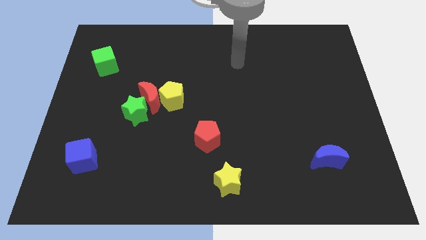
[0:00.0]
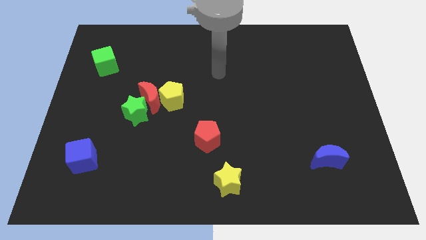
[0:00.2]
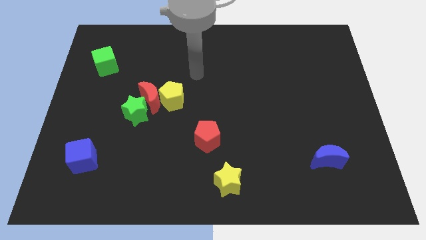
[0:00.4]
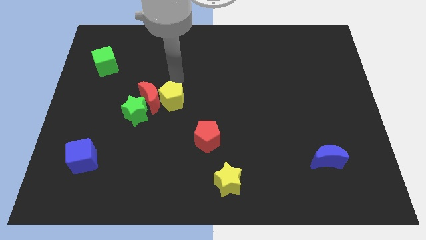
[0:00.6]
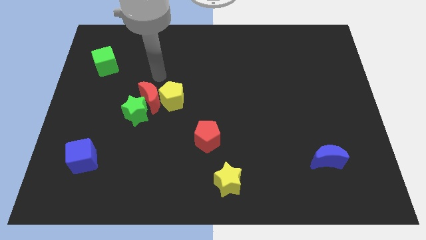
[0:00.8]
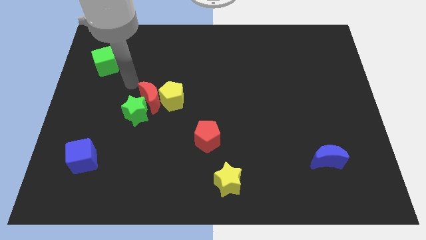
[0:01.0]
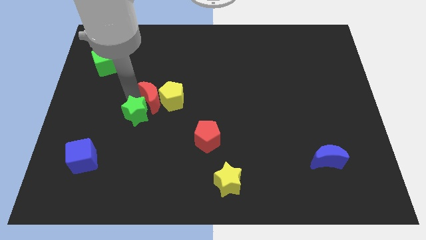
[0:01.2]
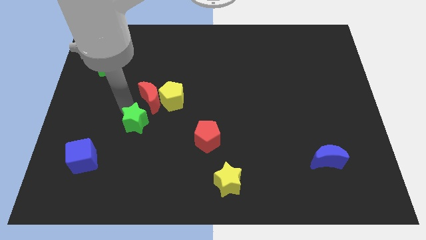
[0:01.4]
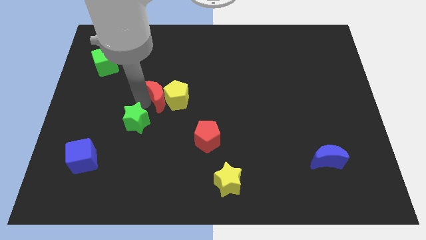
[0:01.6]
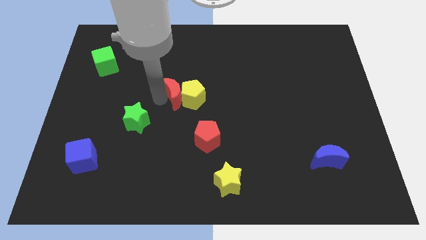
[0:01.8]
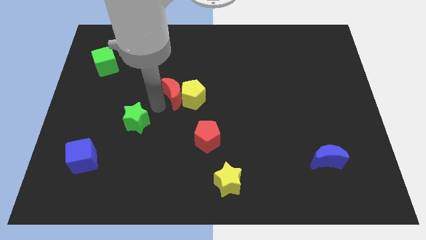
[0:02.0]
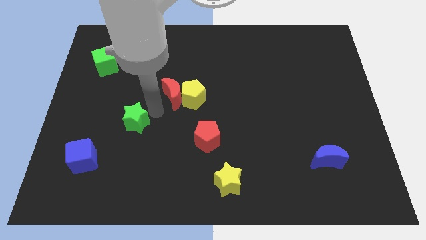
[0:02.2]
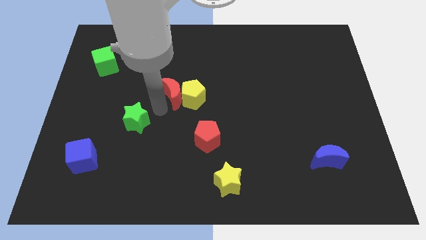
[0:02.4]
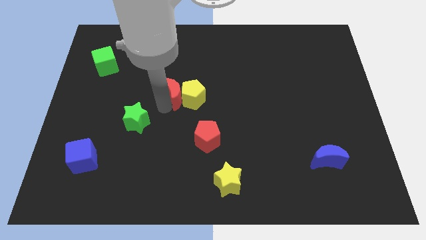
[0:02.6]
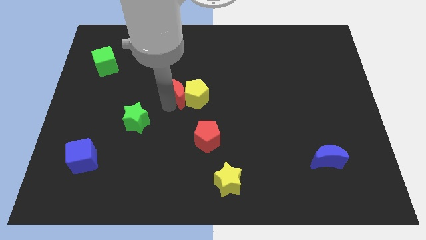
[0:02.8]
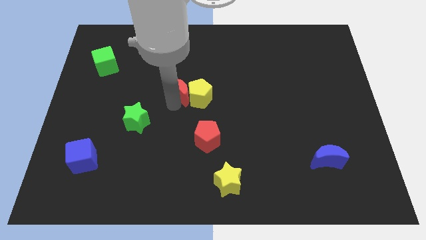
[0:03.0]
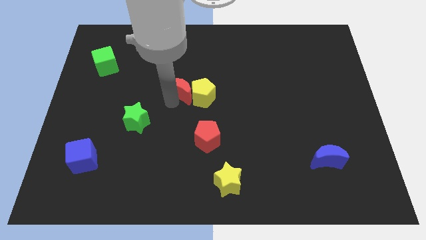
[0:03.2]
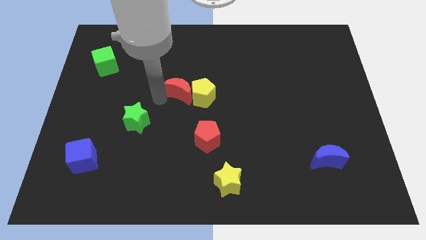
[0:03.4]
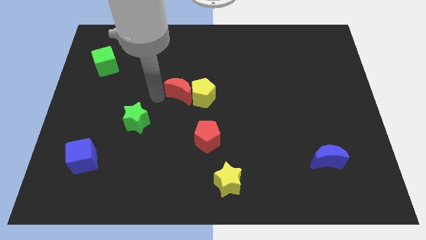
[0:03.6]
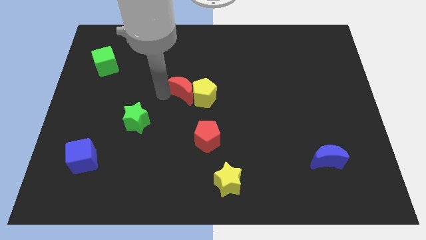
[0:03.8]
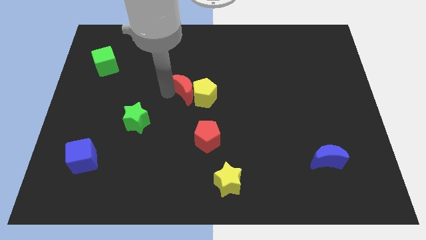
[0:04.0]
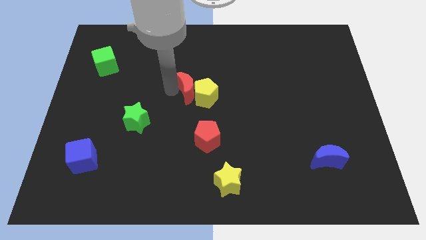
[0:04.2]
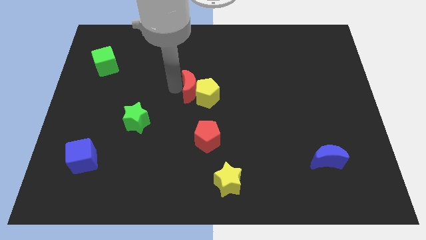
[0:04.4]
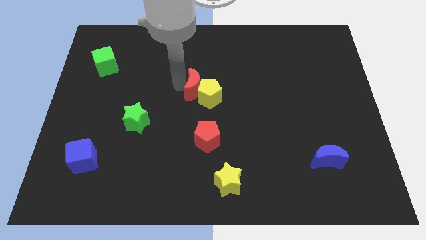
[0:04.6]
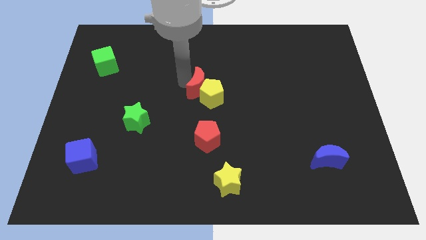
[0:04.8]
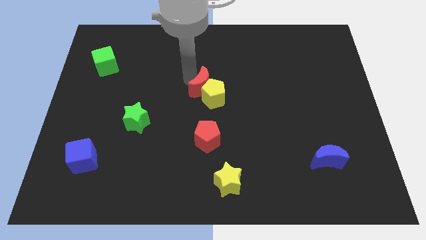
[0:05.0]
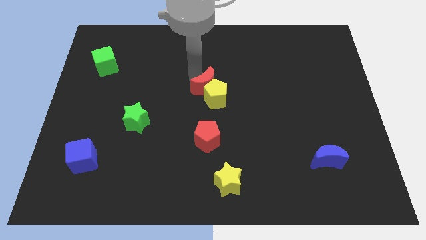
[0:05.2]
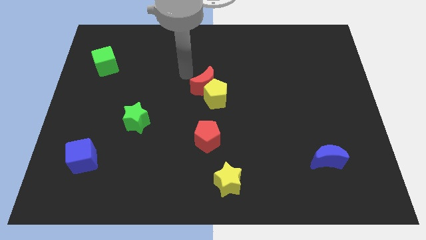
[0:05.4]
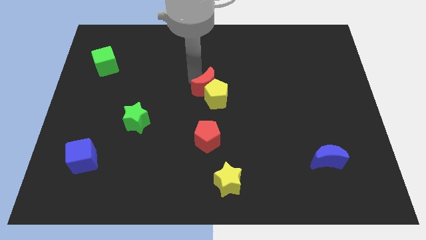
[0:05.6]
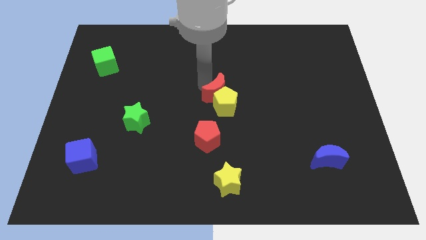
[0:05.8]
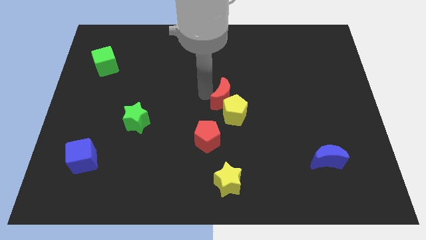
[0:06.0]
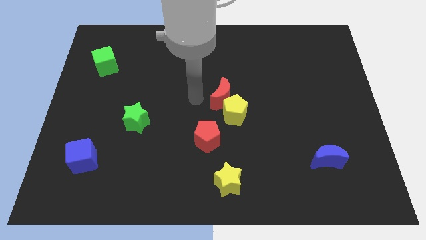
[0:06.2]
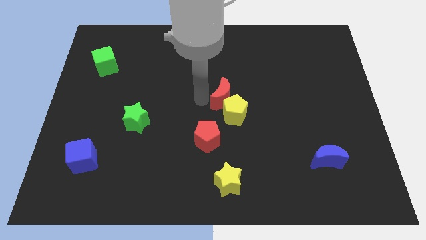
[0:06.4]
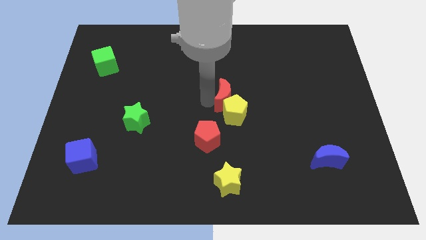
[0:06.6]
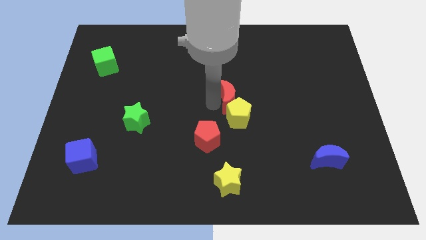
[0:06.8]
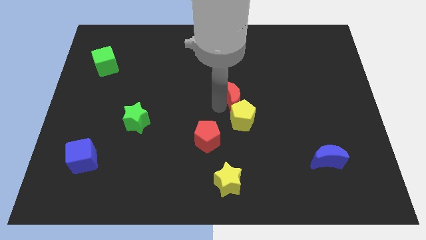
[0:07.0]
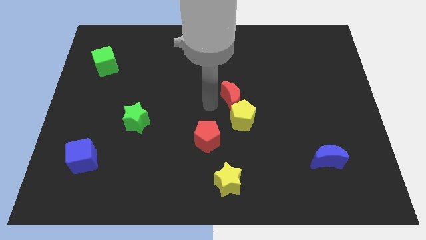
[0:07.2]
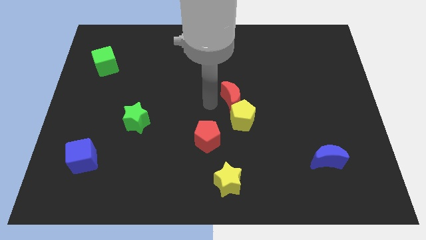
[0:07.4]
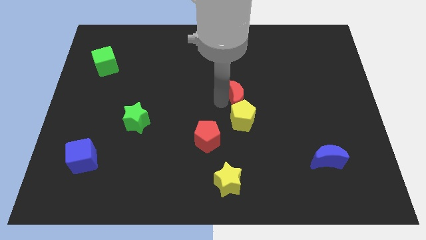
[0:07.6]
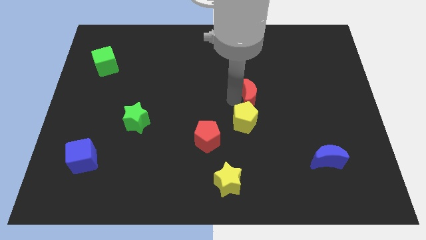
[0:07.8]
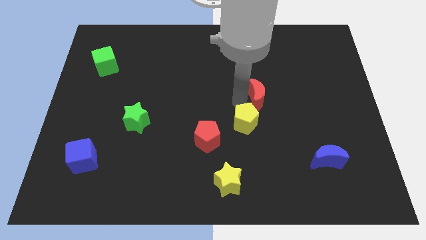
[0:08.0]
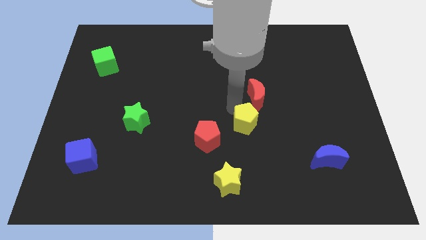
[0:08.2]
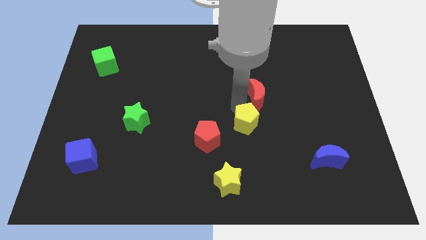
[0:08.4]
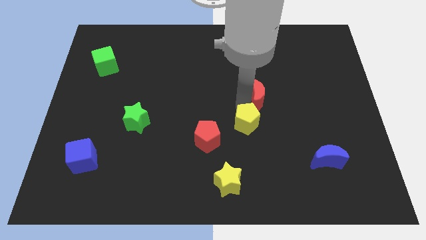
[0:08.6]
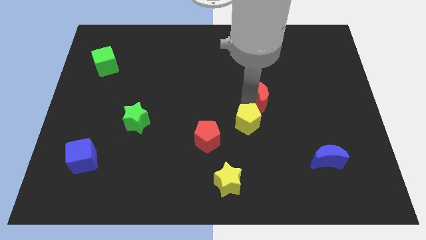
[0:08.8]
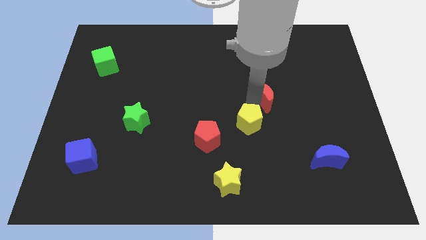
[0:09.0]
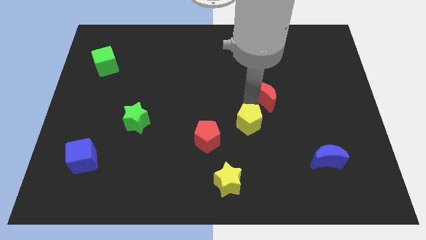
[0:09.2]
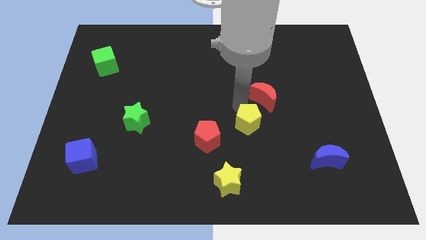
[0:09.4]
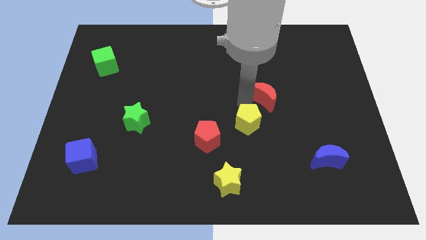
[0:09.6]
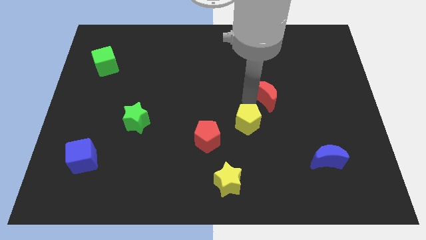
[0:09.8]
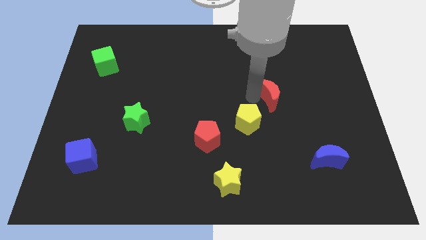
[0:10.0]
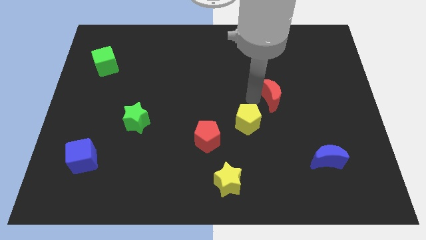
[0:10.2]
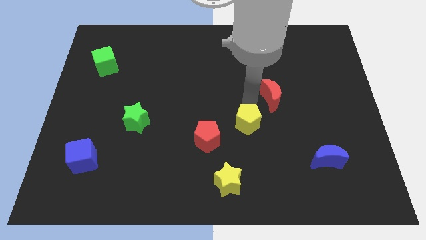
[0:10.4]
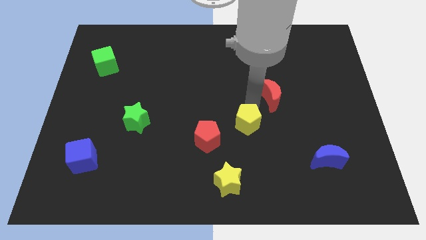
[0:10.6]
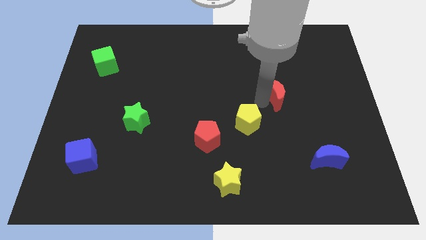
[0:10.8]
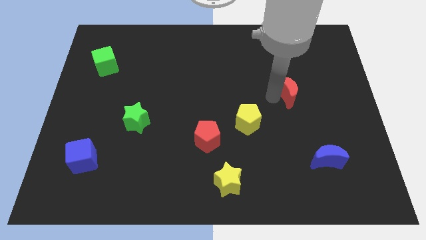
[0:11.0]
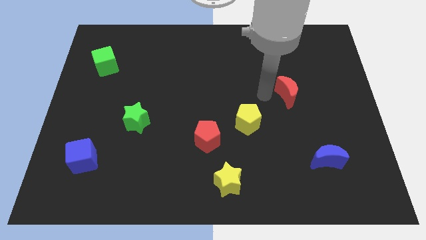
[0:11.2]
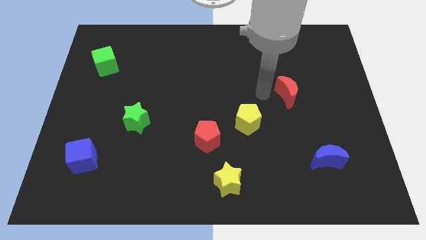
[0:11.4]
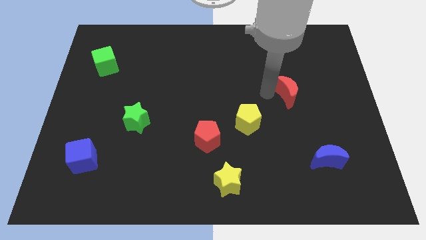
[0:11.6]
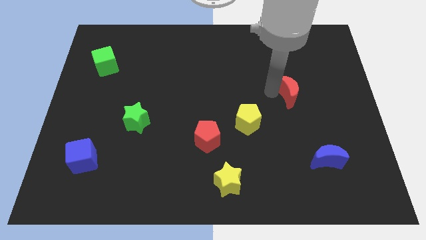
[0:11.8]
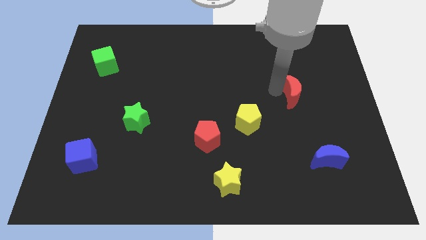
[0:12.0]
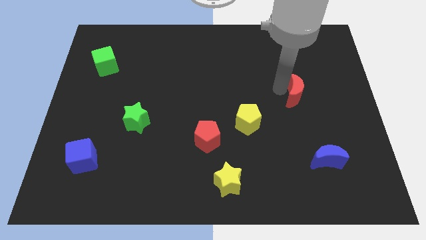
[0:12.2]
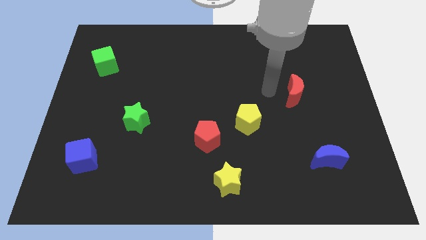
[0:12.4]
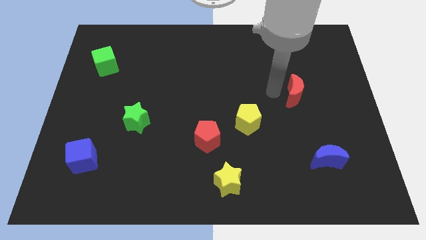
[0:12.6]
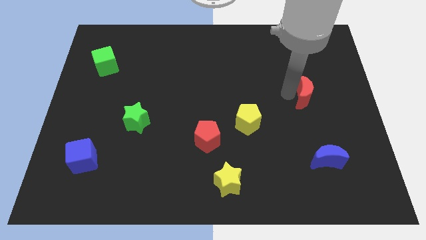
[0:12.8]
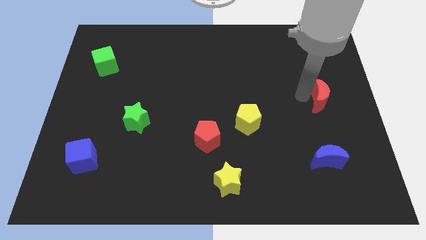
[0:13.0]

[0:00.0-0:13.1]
put the red moon to the right side
